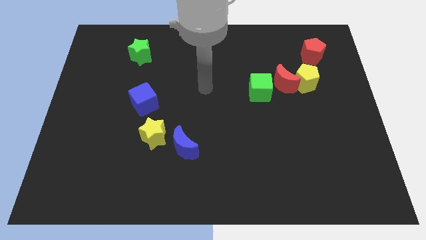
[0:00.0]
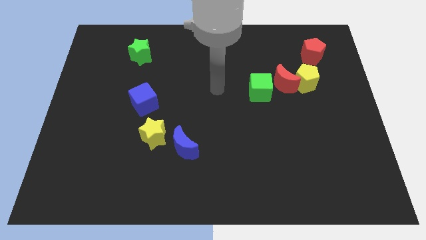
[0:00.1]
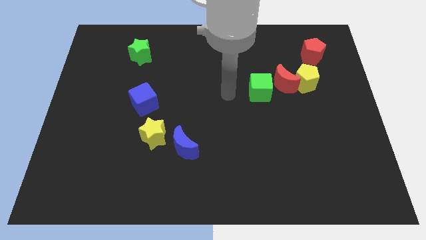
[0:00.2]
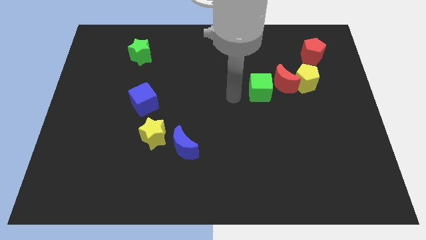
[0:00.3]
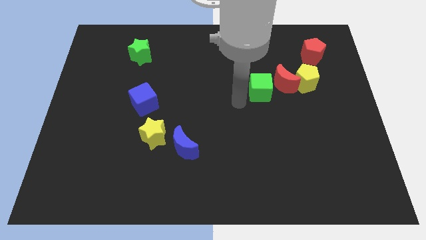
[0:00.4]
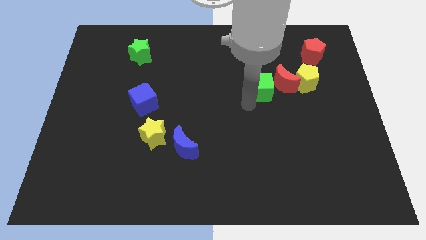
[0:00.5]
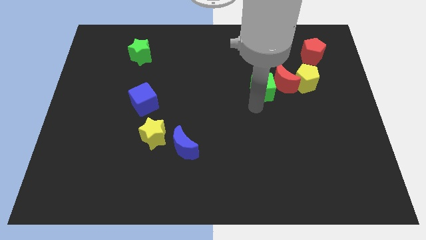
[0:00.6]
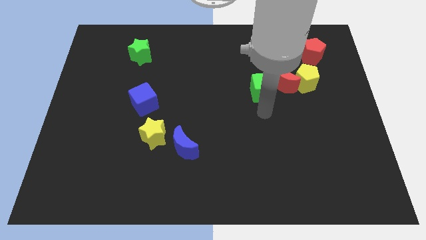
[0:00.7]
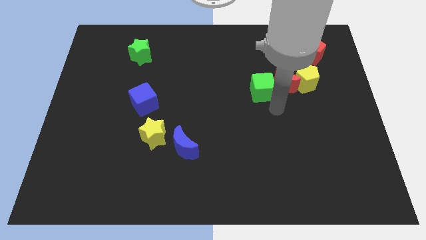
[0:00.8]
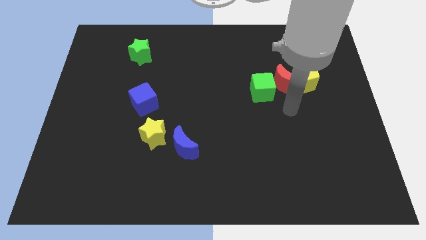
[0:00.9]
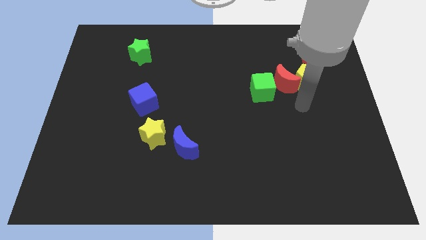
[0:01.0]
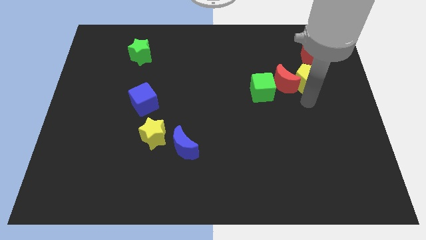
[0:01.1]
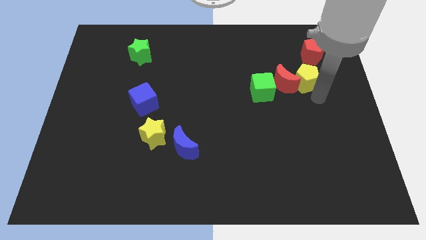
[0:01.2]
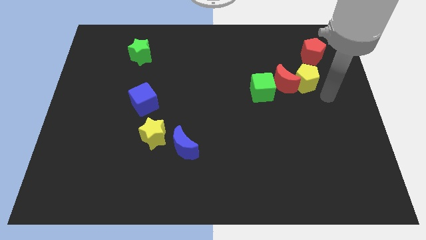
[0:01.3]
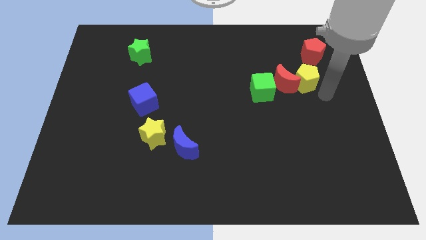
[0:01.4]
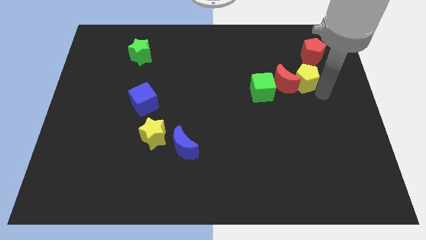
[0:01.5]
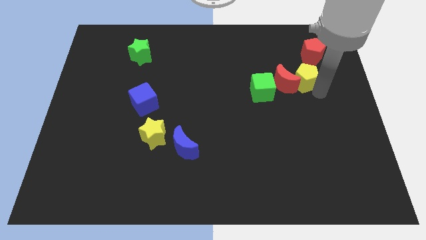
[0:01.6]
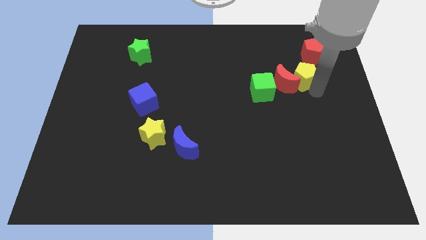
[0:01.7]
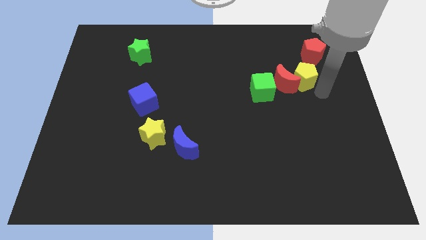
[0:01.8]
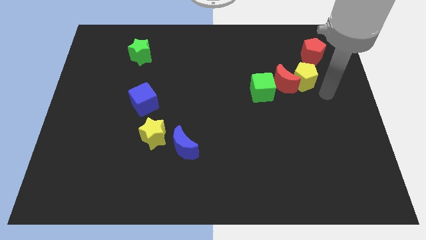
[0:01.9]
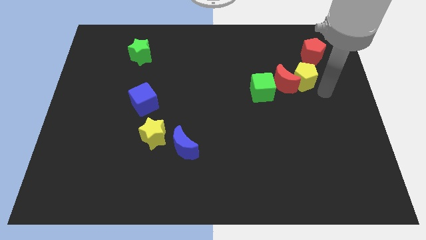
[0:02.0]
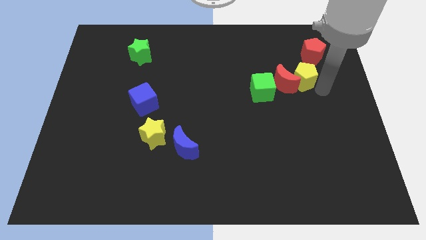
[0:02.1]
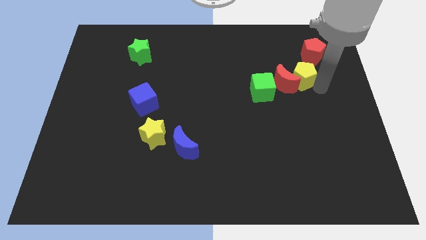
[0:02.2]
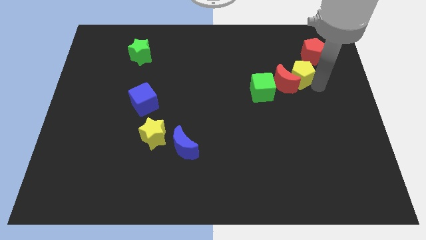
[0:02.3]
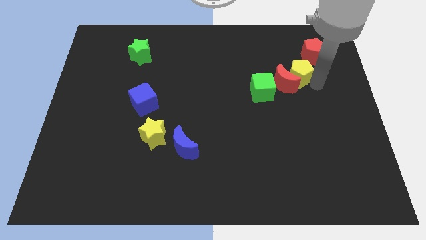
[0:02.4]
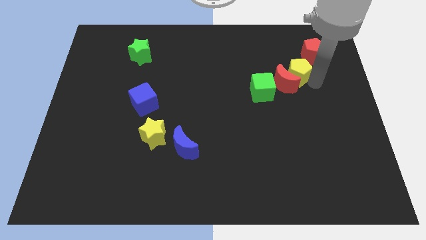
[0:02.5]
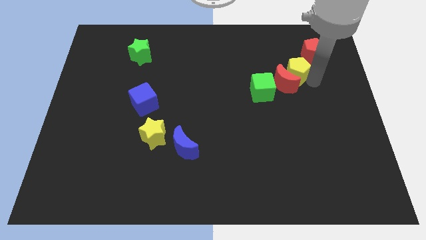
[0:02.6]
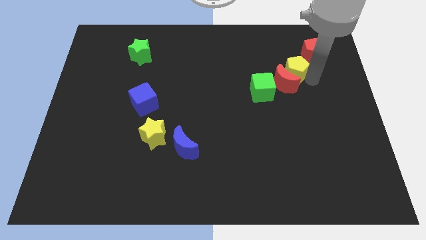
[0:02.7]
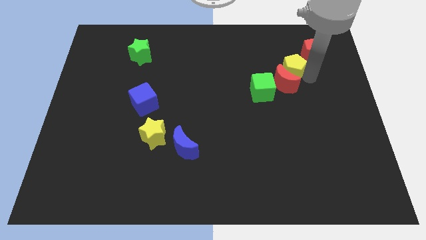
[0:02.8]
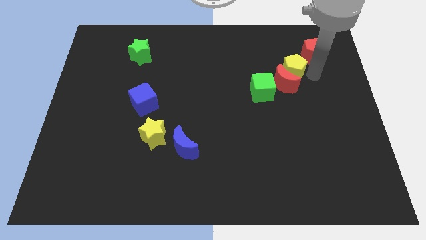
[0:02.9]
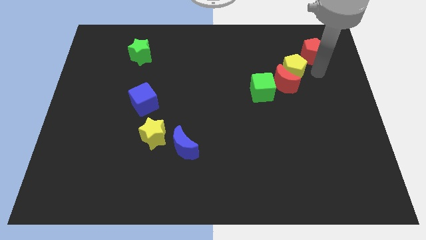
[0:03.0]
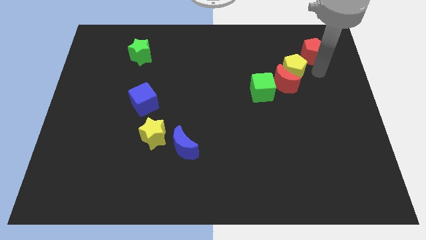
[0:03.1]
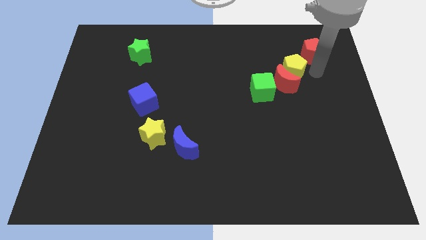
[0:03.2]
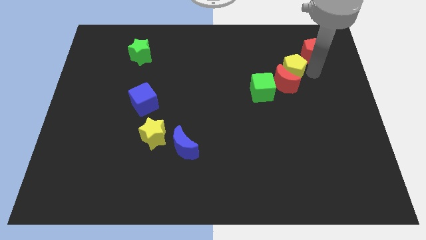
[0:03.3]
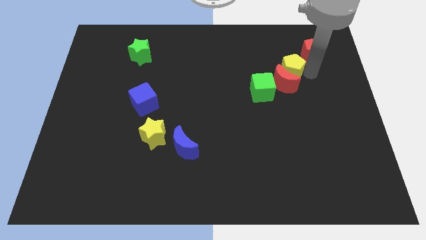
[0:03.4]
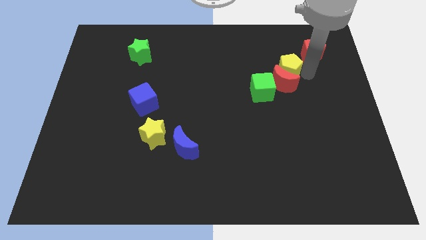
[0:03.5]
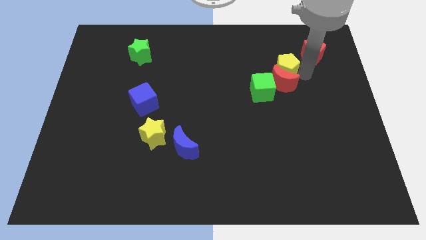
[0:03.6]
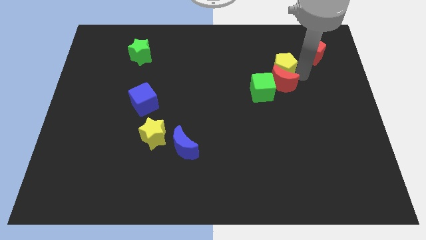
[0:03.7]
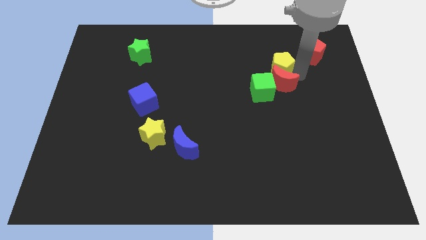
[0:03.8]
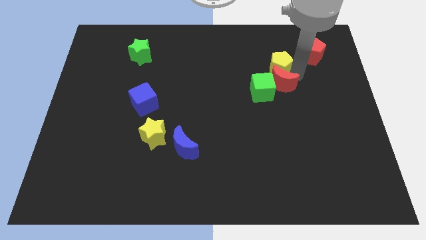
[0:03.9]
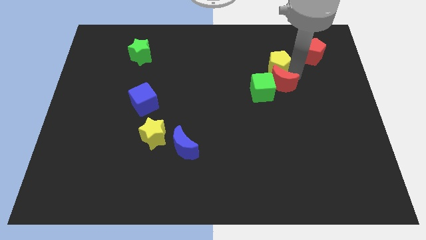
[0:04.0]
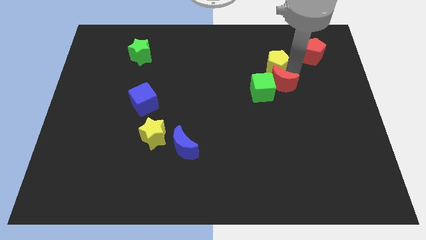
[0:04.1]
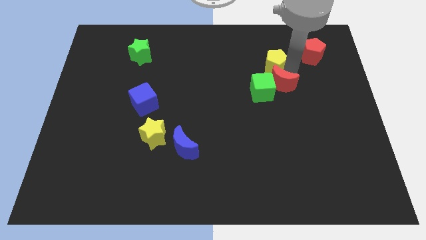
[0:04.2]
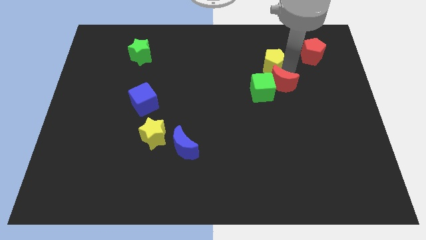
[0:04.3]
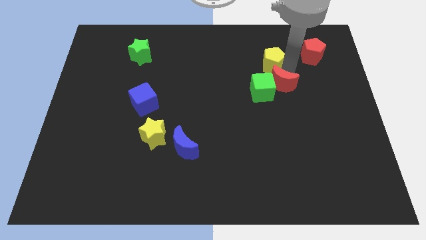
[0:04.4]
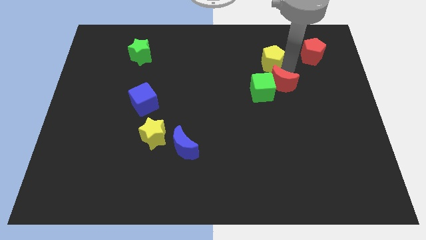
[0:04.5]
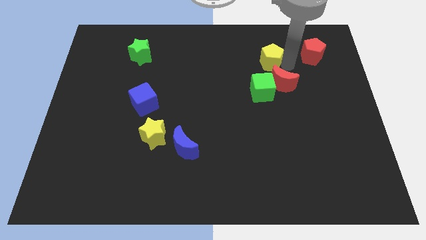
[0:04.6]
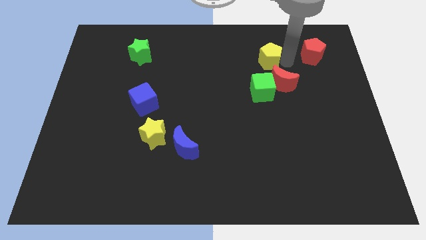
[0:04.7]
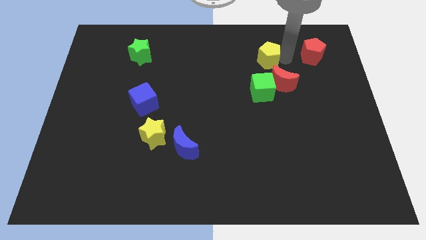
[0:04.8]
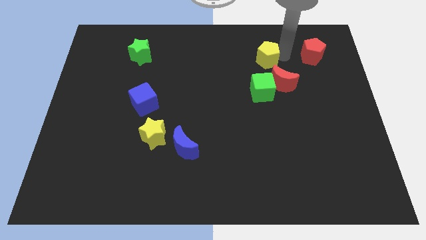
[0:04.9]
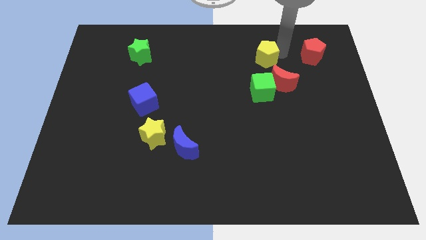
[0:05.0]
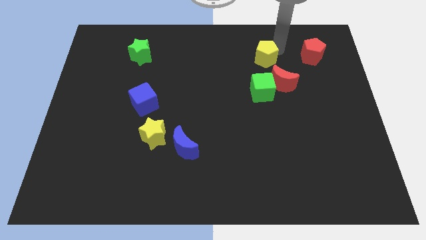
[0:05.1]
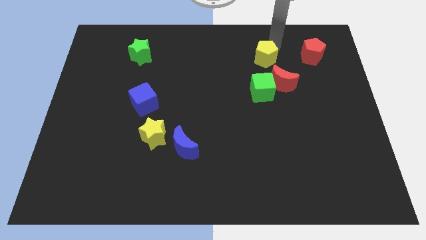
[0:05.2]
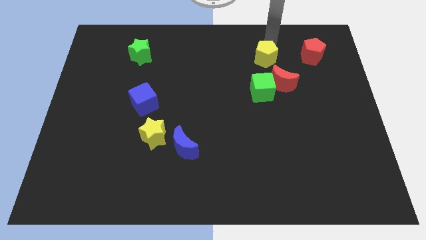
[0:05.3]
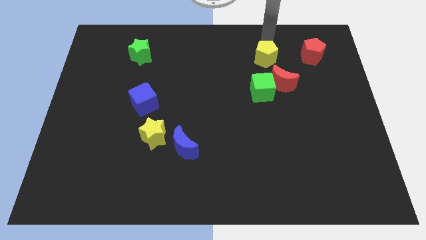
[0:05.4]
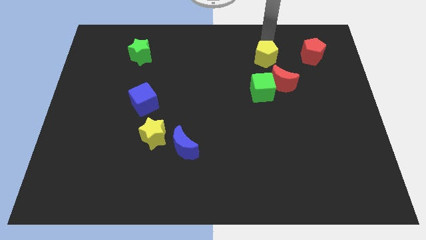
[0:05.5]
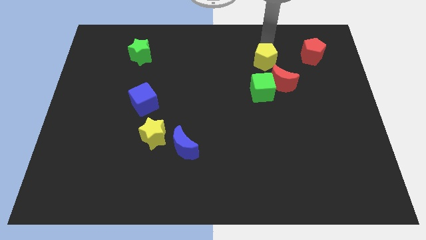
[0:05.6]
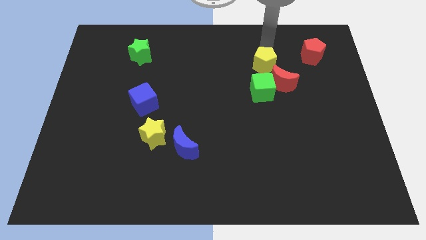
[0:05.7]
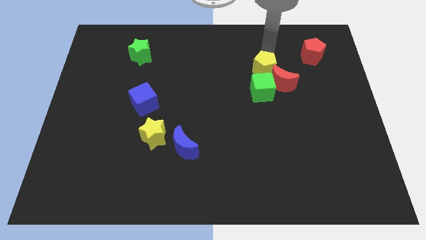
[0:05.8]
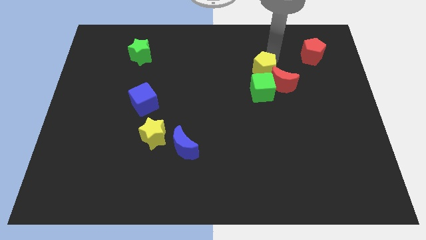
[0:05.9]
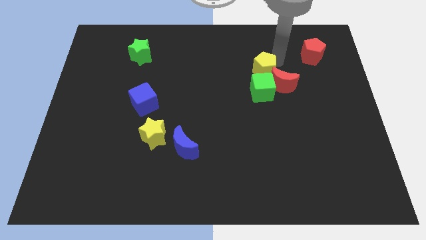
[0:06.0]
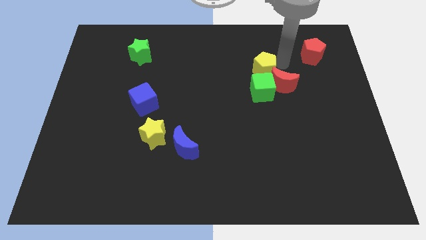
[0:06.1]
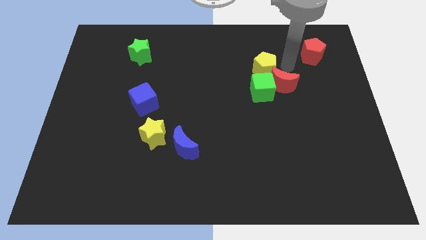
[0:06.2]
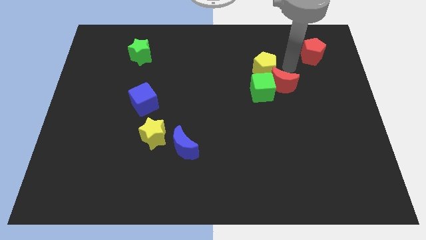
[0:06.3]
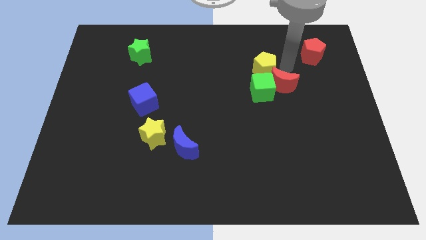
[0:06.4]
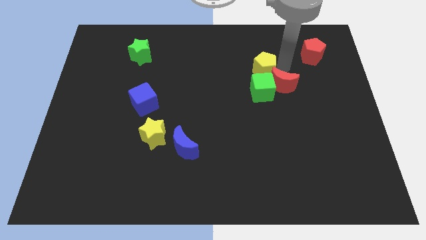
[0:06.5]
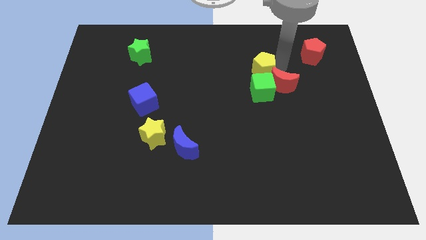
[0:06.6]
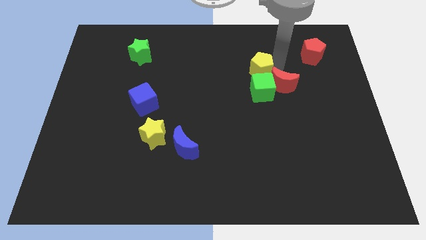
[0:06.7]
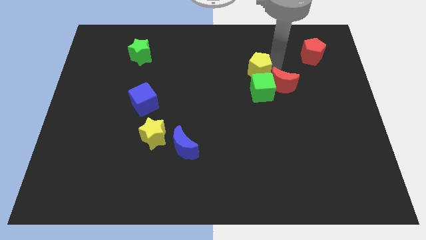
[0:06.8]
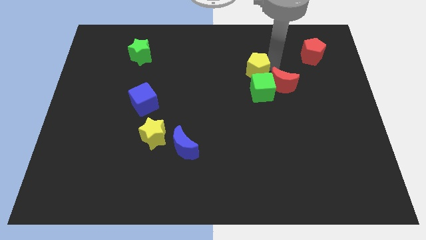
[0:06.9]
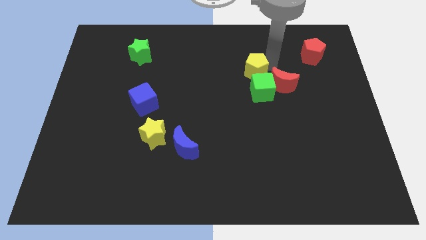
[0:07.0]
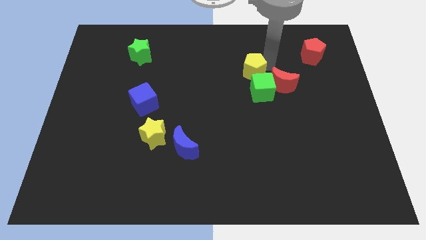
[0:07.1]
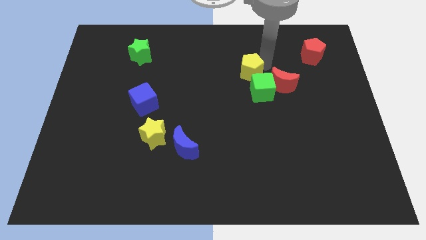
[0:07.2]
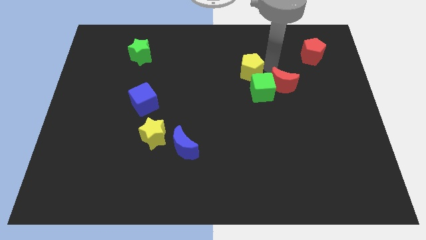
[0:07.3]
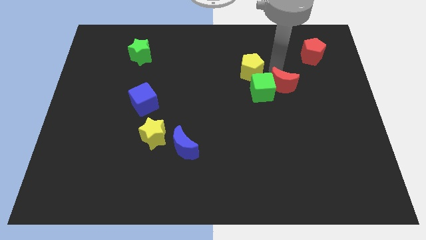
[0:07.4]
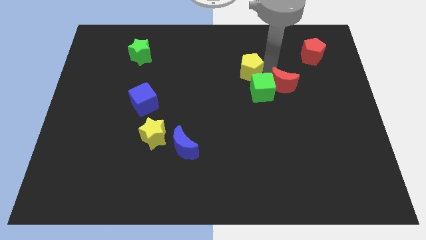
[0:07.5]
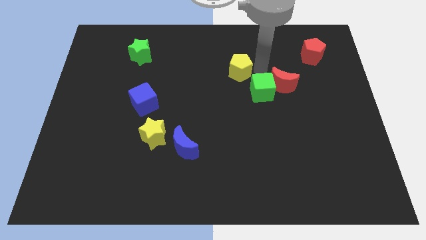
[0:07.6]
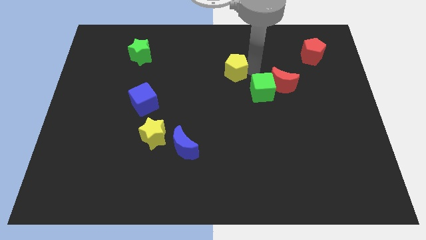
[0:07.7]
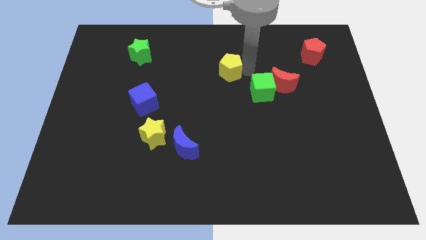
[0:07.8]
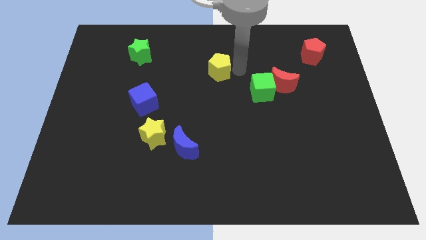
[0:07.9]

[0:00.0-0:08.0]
slide the yellow pentagon left

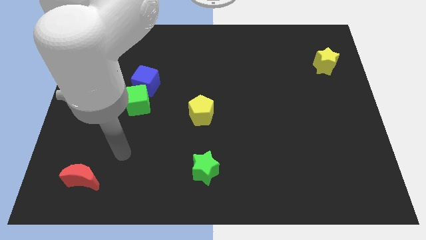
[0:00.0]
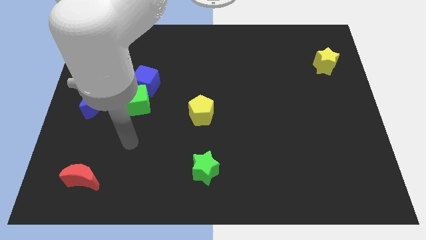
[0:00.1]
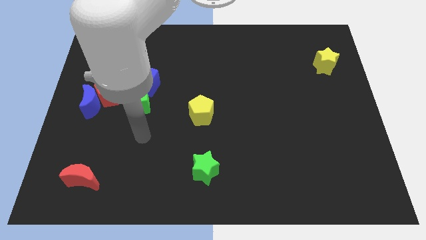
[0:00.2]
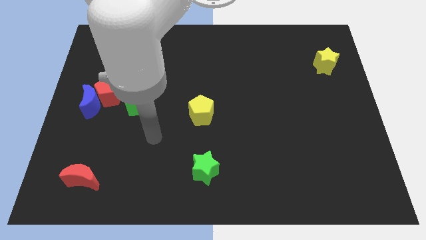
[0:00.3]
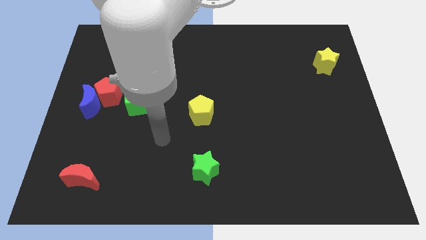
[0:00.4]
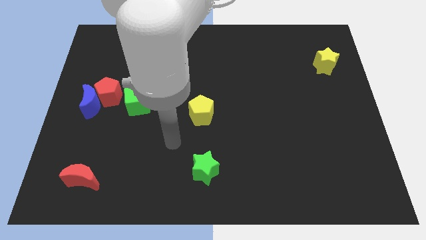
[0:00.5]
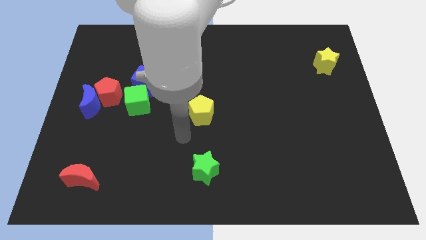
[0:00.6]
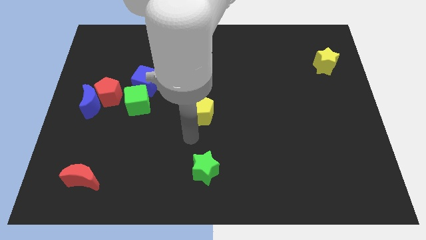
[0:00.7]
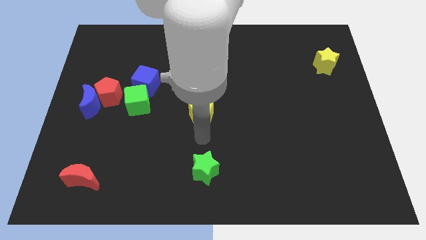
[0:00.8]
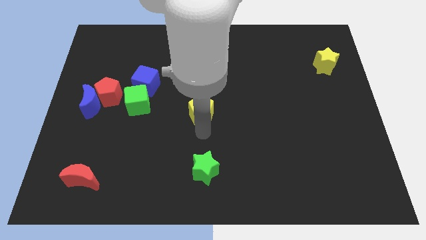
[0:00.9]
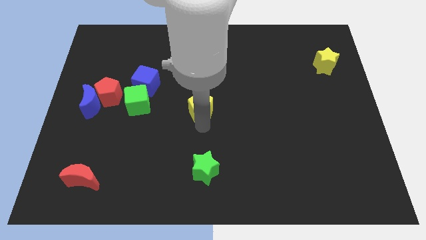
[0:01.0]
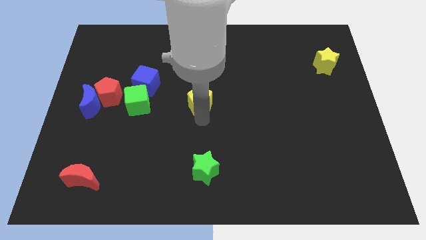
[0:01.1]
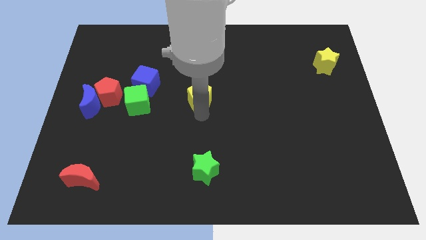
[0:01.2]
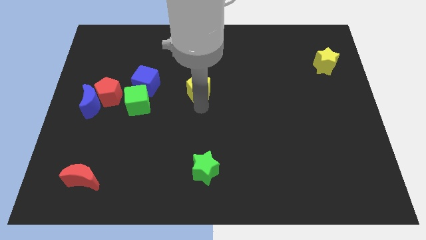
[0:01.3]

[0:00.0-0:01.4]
move the yellow pentagon a little up
